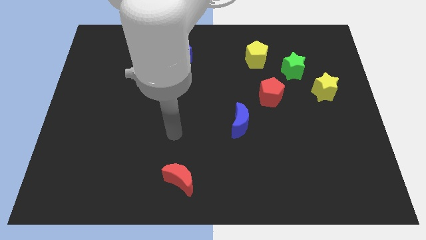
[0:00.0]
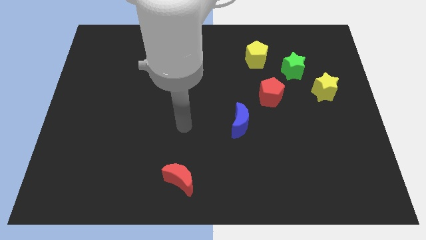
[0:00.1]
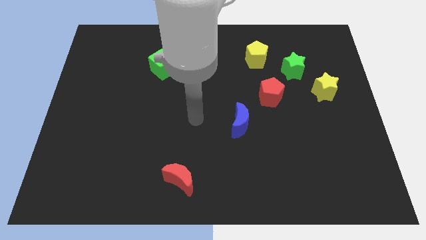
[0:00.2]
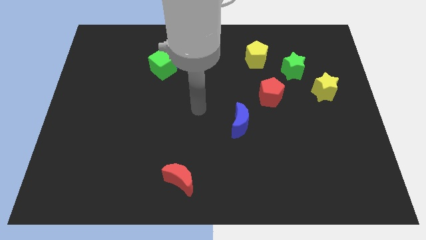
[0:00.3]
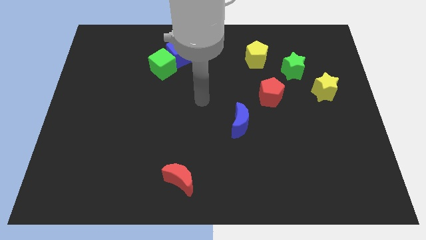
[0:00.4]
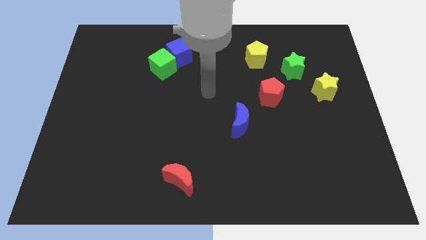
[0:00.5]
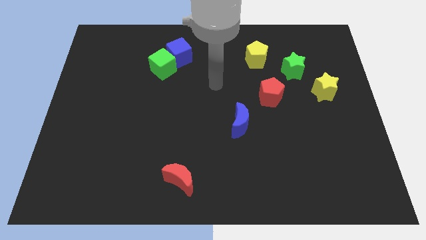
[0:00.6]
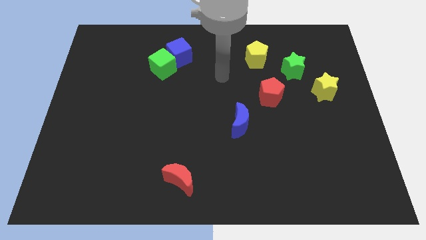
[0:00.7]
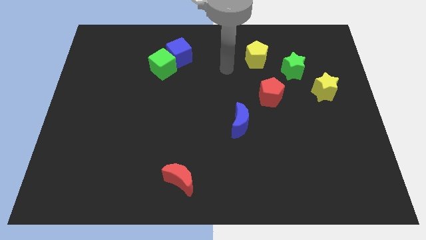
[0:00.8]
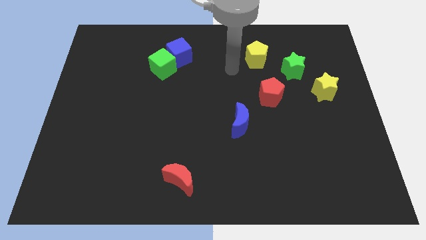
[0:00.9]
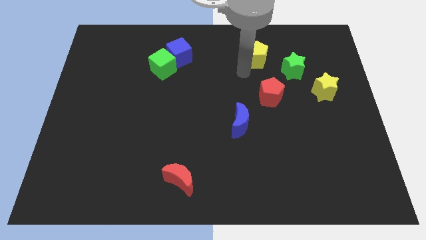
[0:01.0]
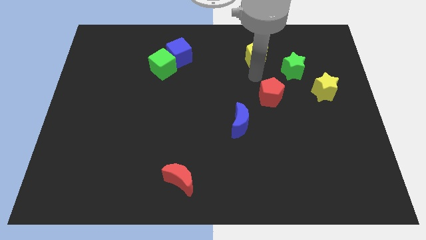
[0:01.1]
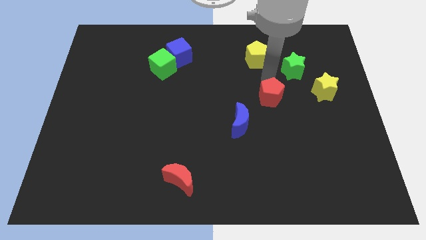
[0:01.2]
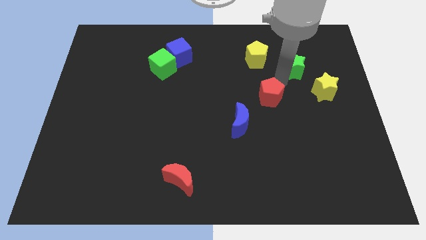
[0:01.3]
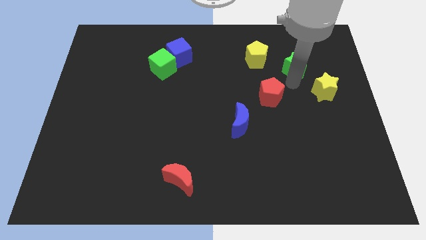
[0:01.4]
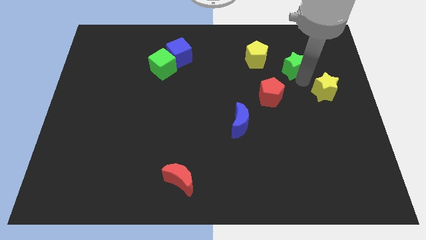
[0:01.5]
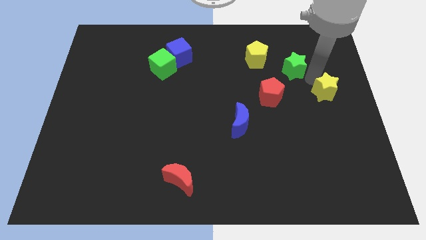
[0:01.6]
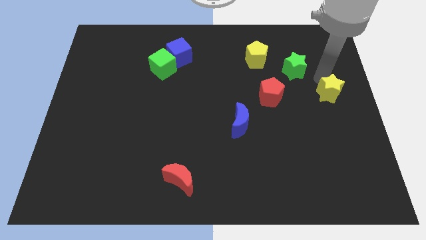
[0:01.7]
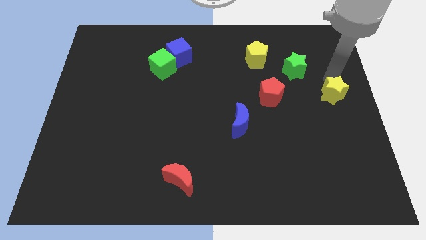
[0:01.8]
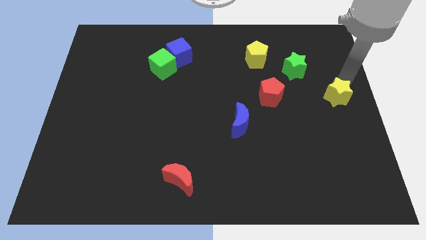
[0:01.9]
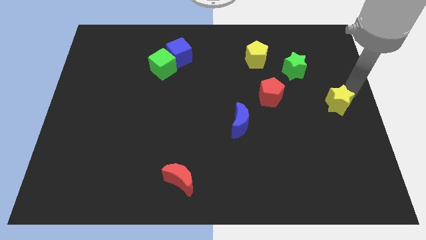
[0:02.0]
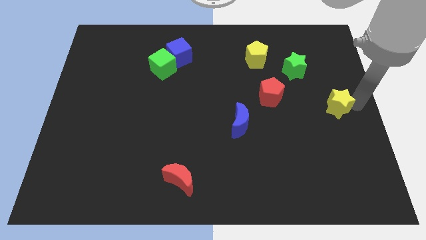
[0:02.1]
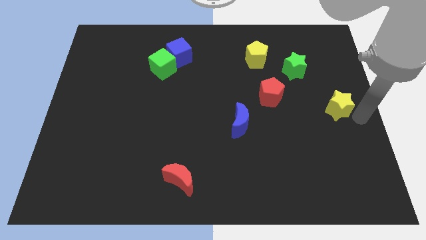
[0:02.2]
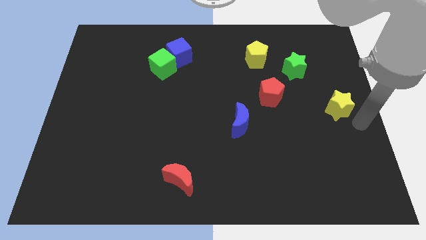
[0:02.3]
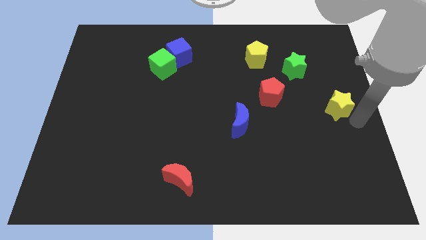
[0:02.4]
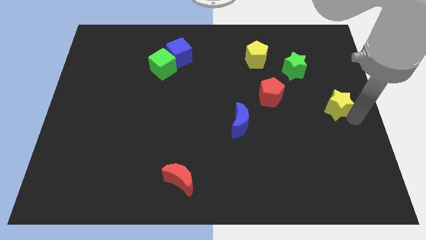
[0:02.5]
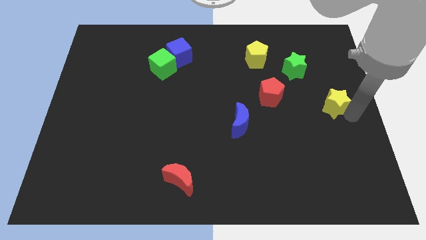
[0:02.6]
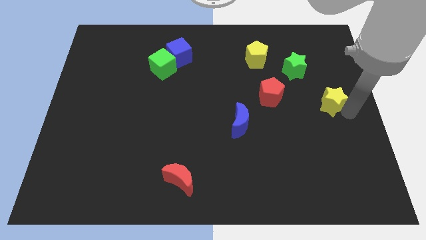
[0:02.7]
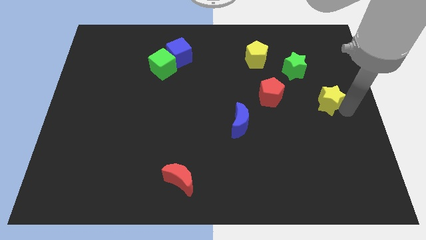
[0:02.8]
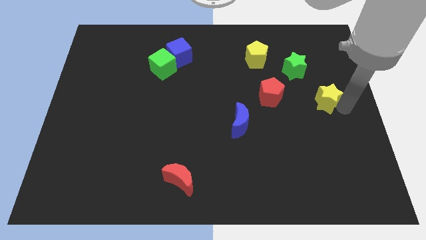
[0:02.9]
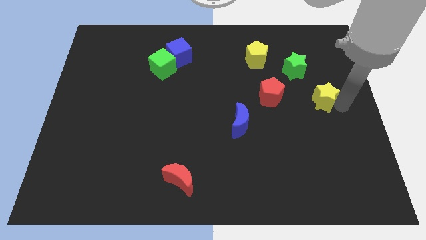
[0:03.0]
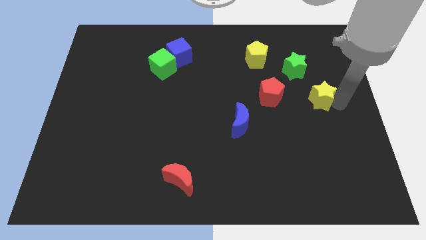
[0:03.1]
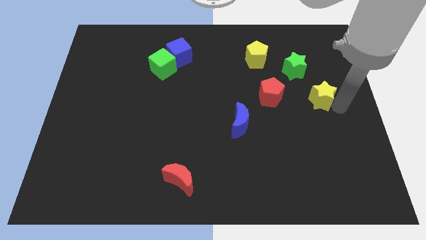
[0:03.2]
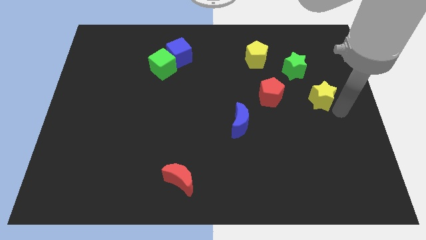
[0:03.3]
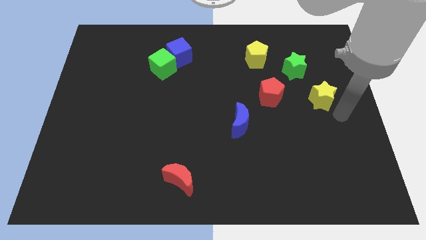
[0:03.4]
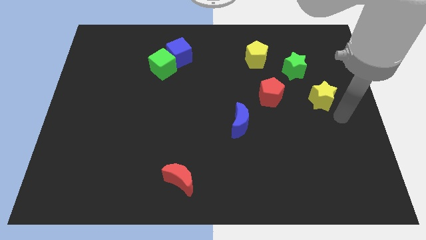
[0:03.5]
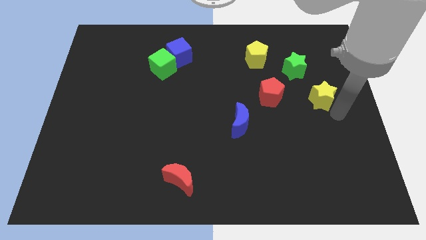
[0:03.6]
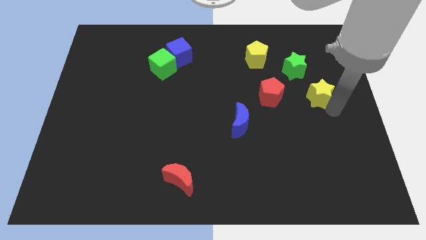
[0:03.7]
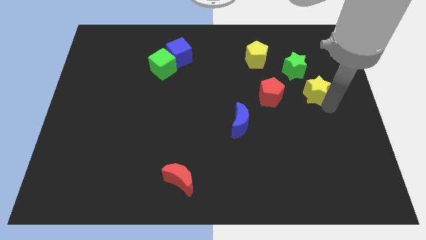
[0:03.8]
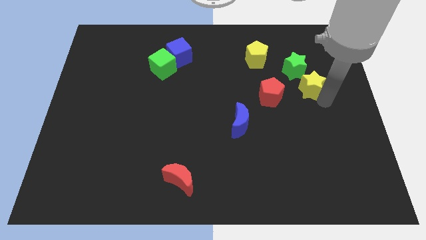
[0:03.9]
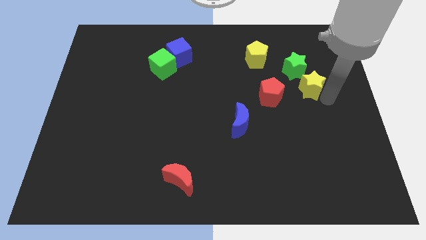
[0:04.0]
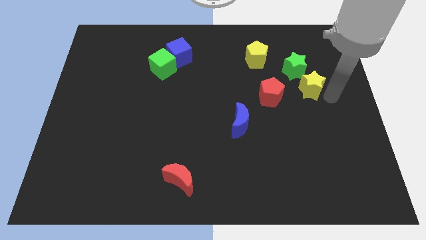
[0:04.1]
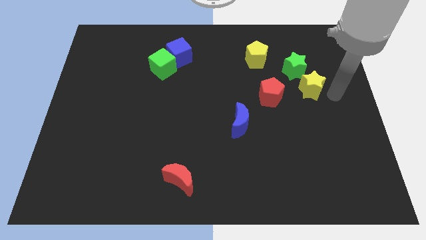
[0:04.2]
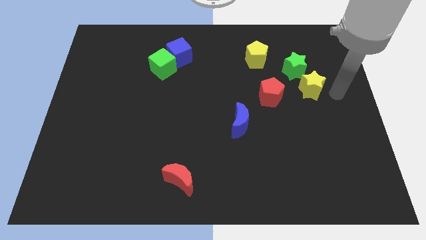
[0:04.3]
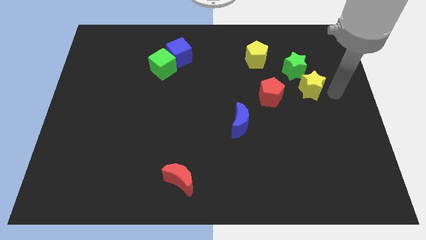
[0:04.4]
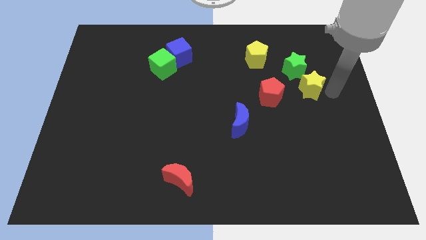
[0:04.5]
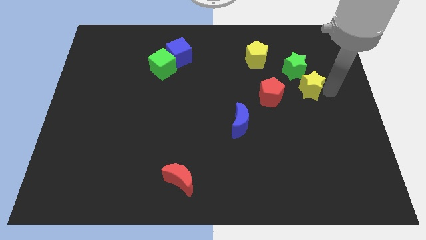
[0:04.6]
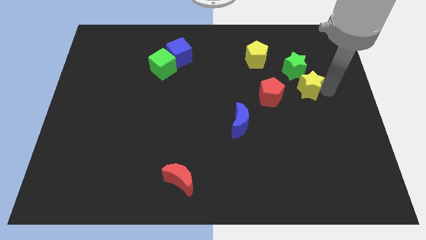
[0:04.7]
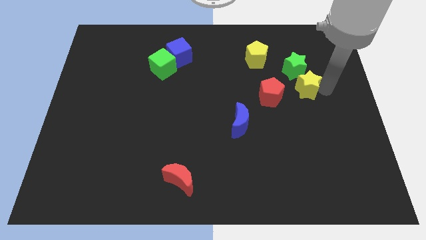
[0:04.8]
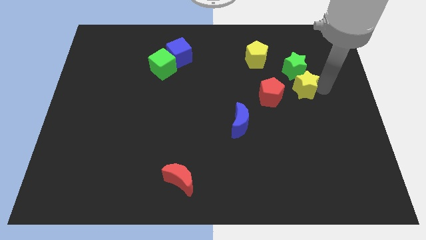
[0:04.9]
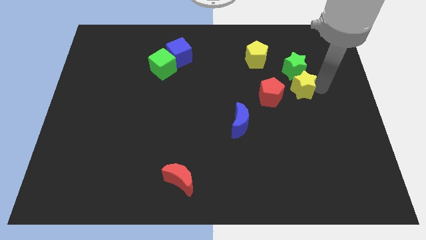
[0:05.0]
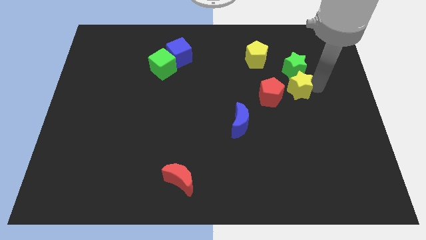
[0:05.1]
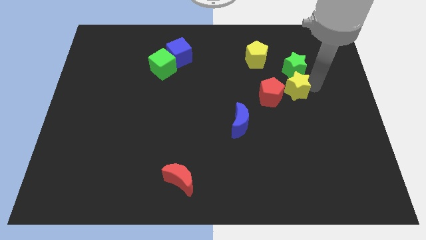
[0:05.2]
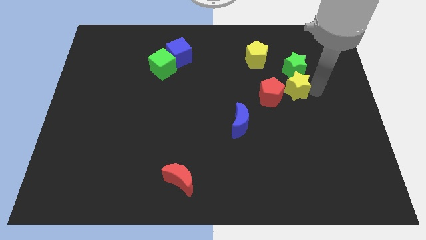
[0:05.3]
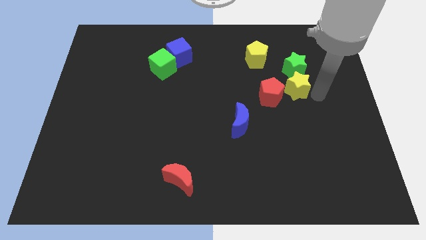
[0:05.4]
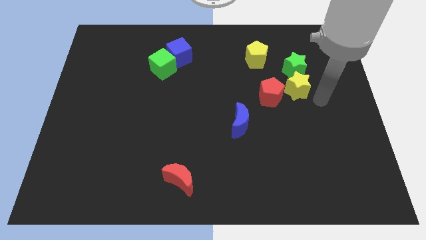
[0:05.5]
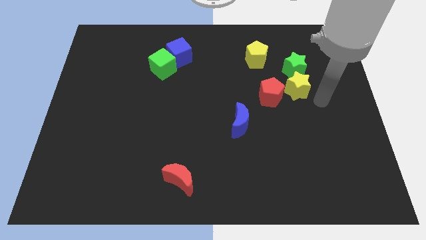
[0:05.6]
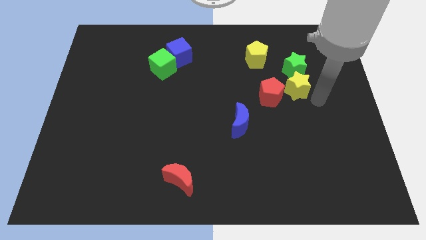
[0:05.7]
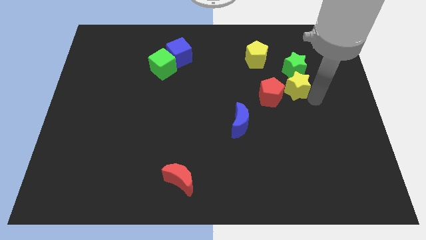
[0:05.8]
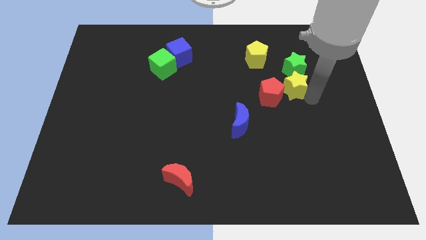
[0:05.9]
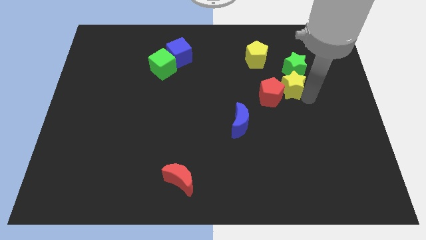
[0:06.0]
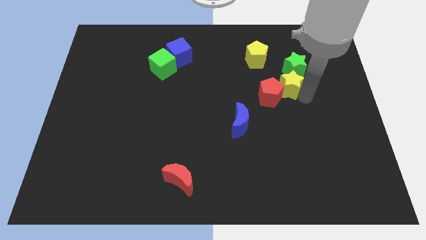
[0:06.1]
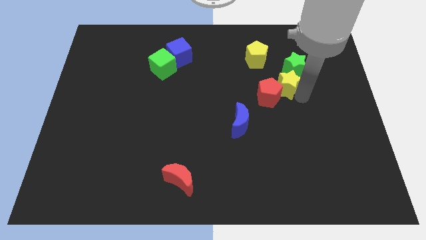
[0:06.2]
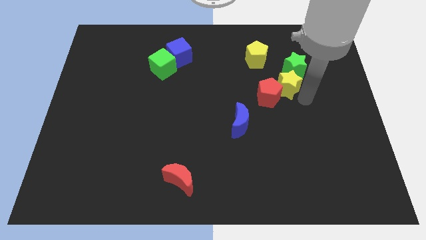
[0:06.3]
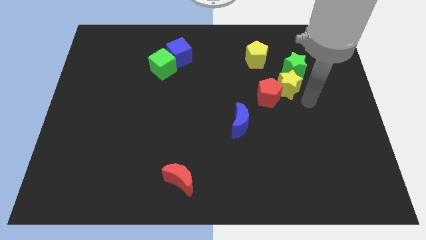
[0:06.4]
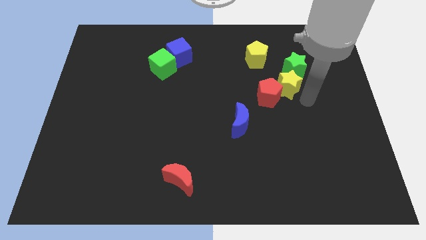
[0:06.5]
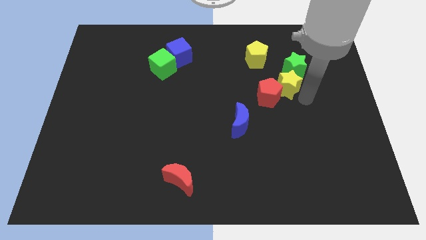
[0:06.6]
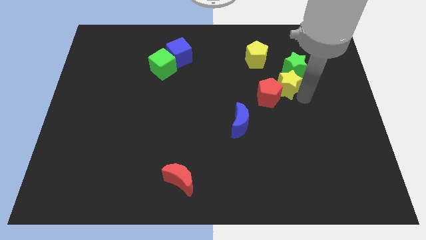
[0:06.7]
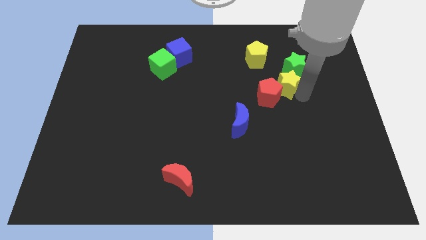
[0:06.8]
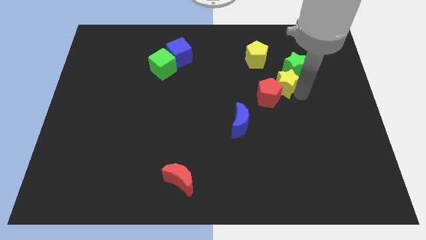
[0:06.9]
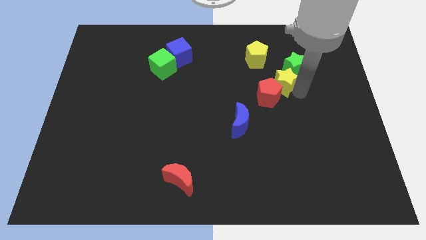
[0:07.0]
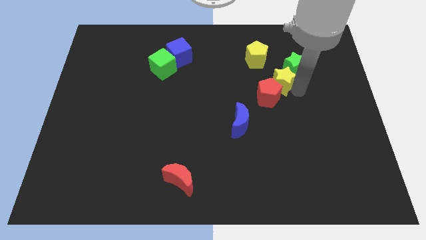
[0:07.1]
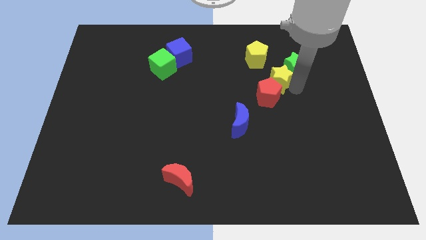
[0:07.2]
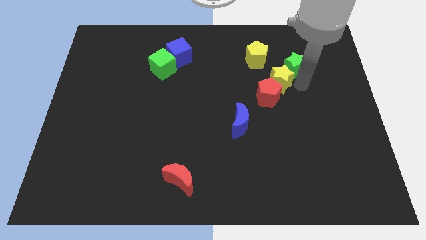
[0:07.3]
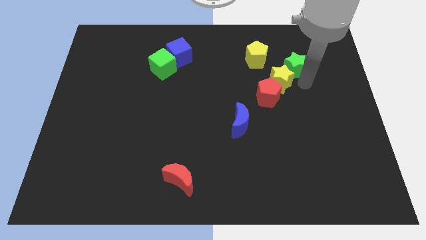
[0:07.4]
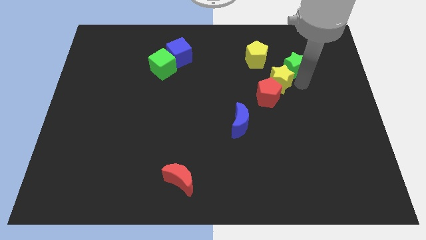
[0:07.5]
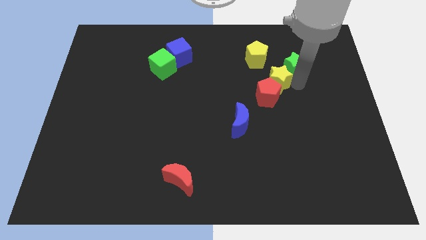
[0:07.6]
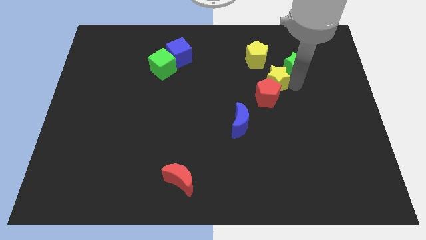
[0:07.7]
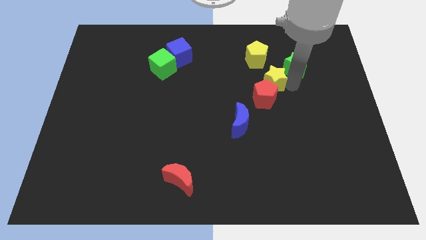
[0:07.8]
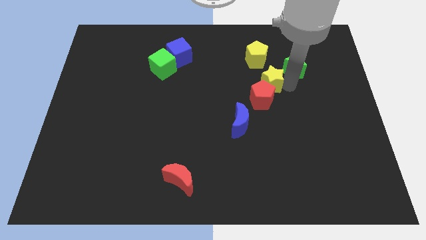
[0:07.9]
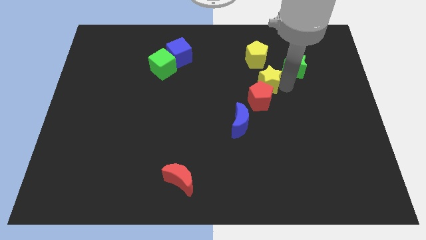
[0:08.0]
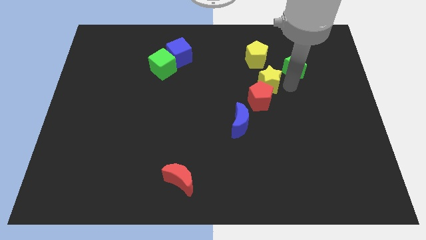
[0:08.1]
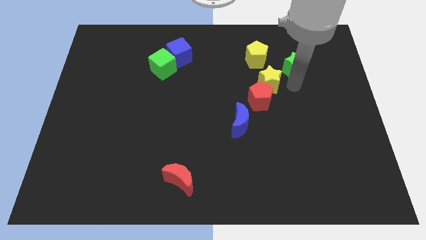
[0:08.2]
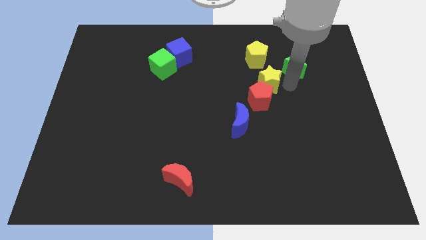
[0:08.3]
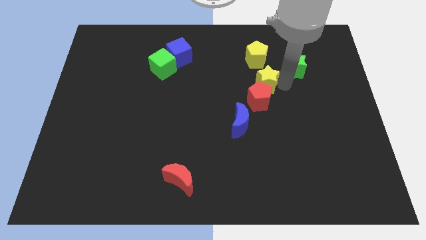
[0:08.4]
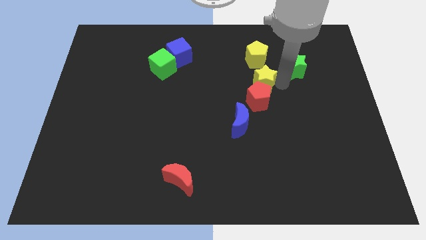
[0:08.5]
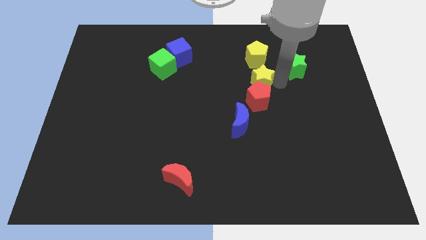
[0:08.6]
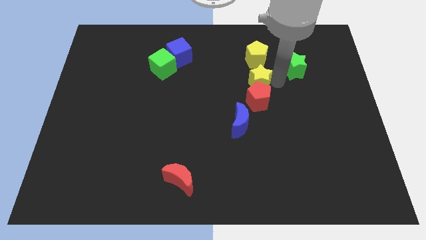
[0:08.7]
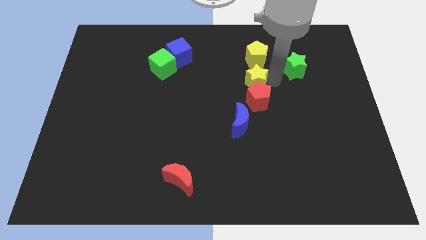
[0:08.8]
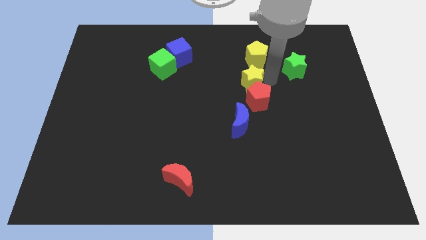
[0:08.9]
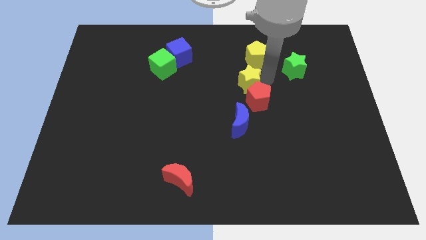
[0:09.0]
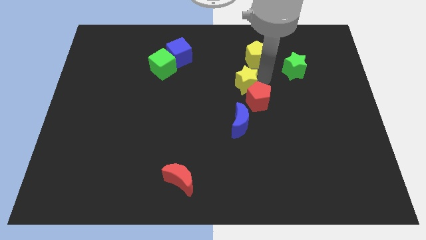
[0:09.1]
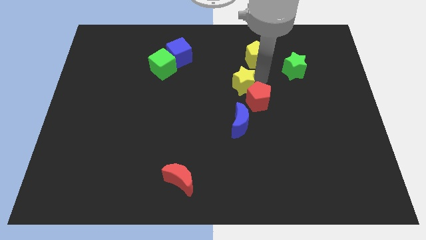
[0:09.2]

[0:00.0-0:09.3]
slide the yellow star left
